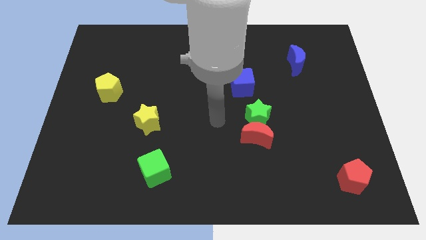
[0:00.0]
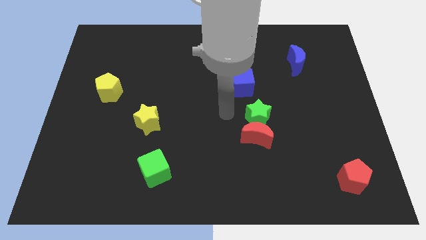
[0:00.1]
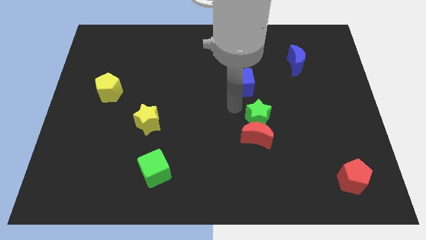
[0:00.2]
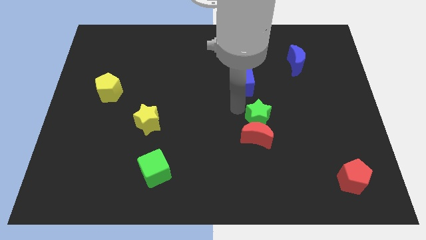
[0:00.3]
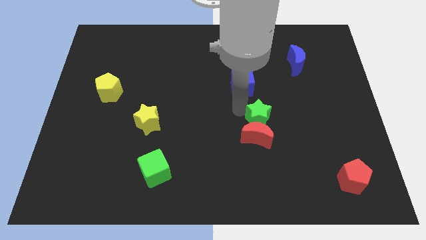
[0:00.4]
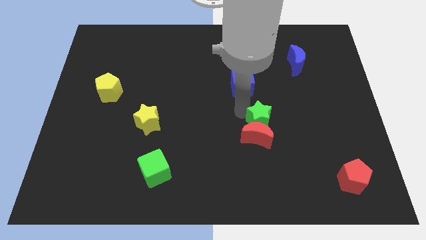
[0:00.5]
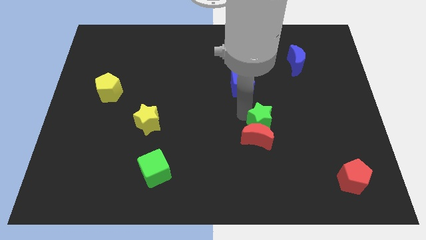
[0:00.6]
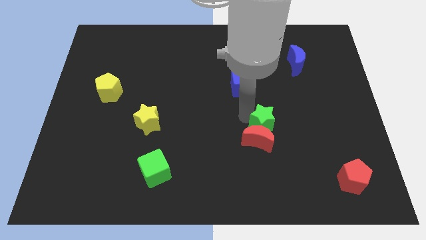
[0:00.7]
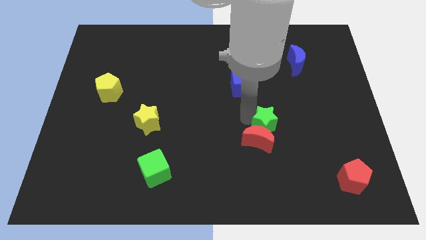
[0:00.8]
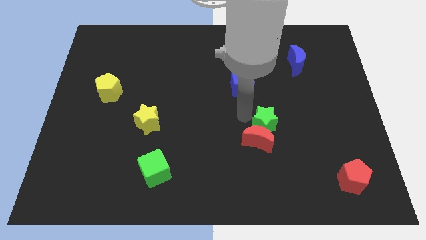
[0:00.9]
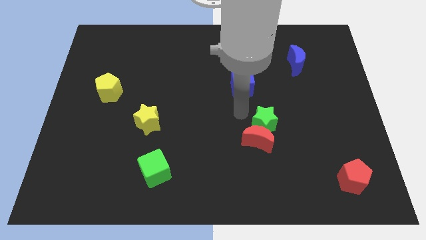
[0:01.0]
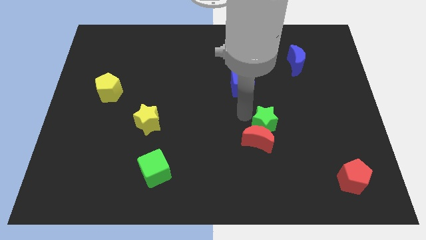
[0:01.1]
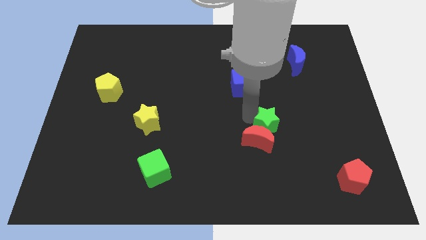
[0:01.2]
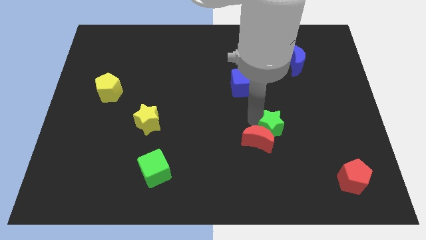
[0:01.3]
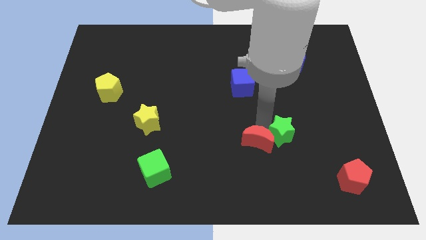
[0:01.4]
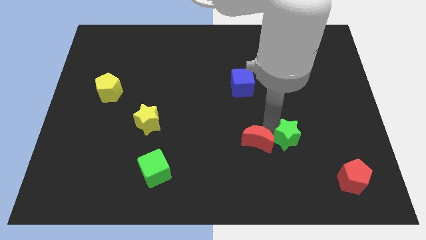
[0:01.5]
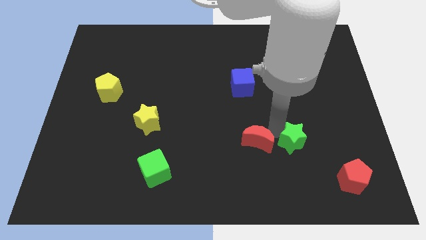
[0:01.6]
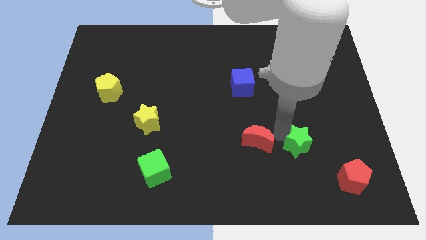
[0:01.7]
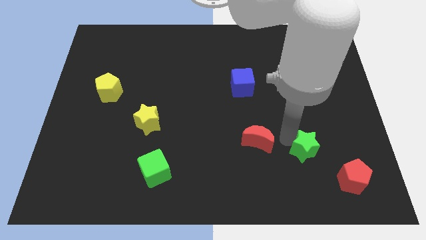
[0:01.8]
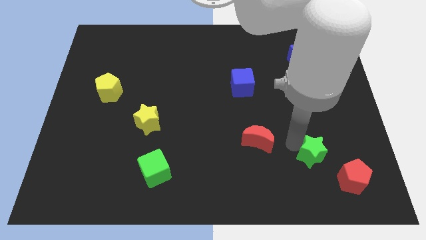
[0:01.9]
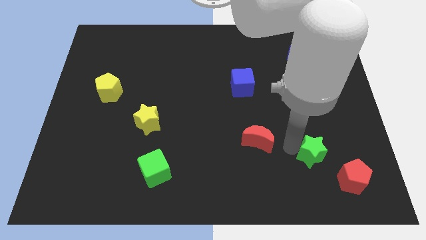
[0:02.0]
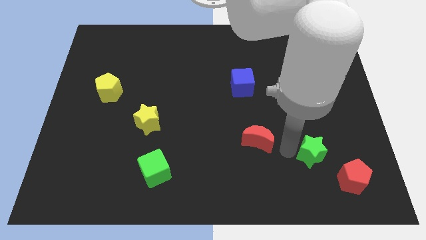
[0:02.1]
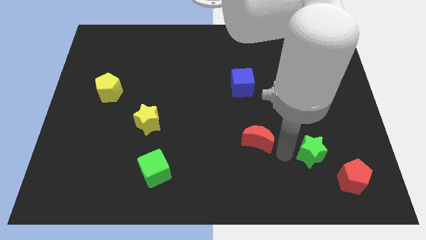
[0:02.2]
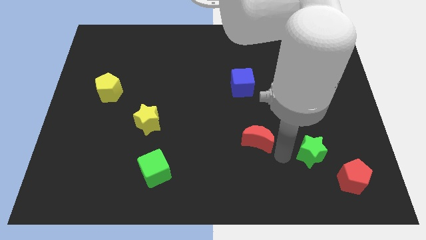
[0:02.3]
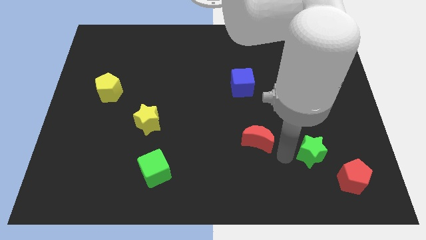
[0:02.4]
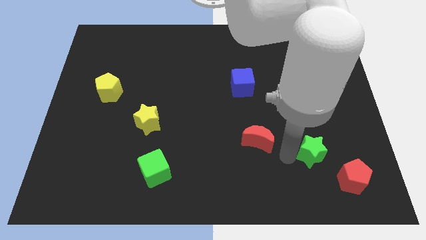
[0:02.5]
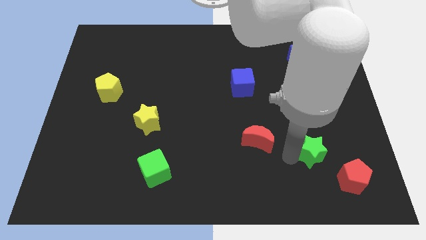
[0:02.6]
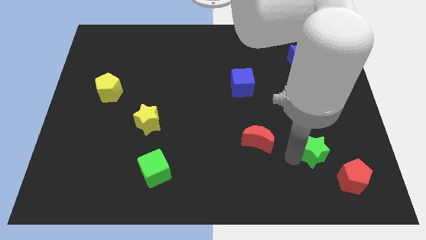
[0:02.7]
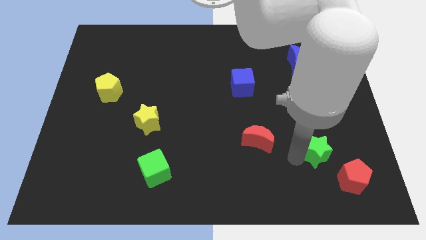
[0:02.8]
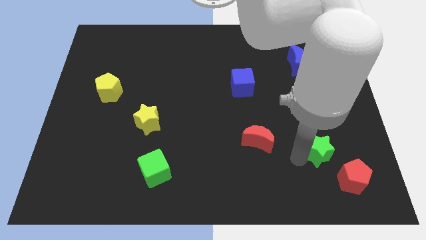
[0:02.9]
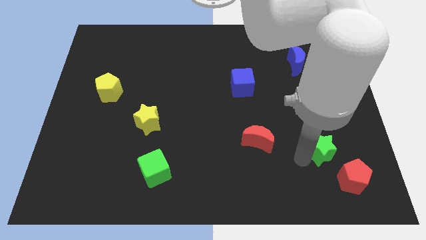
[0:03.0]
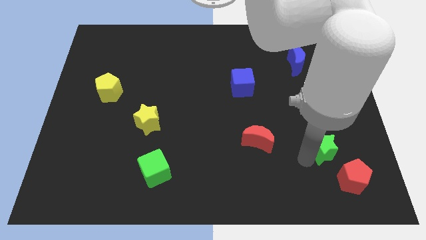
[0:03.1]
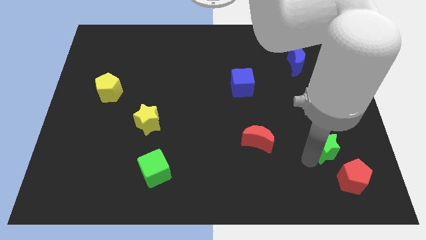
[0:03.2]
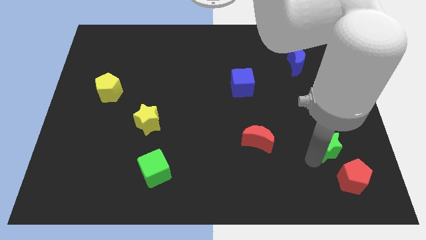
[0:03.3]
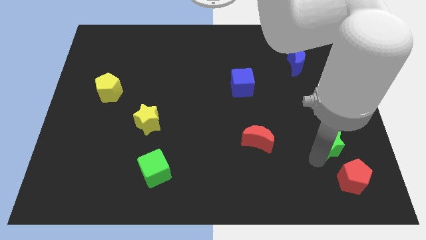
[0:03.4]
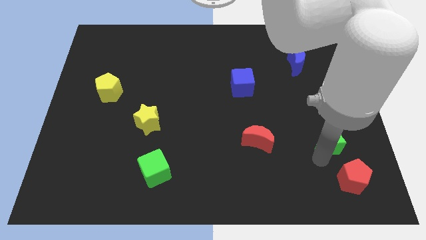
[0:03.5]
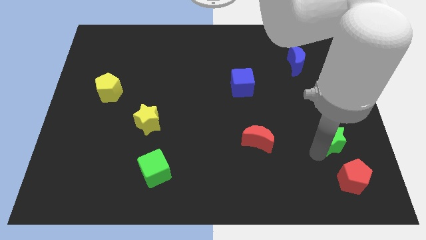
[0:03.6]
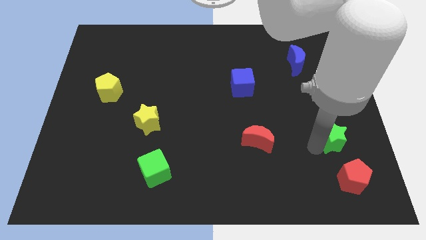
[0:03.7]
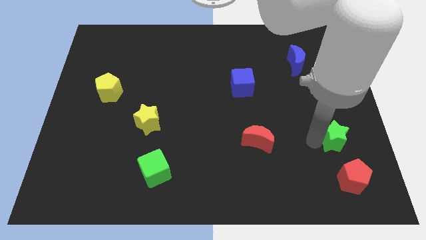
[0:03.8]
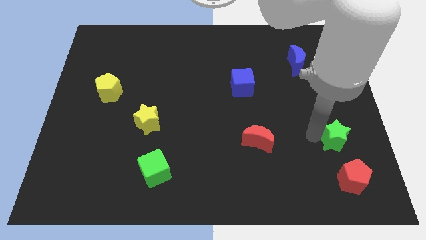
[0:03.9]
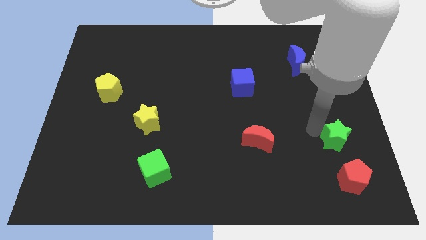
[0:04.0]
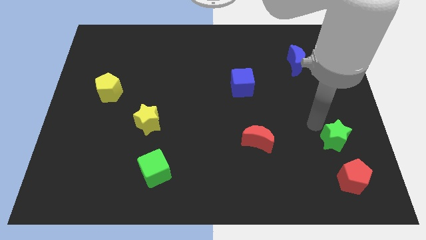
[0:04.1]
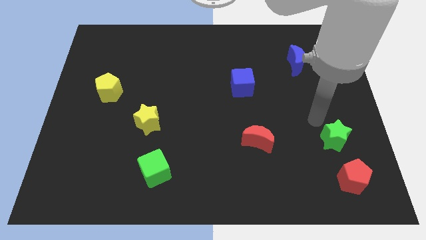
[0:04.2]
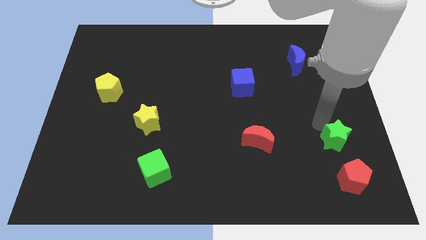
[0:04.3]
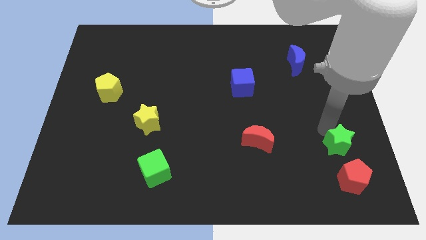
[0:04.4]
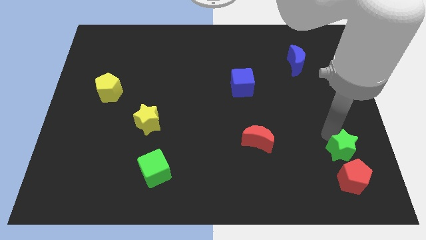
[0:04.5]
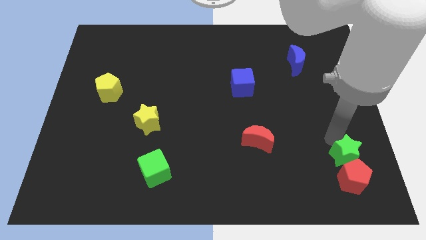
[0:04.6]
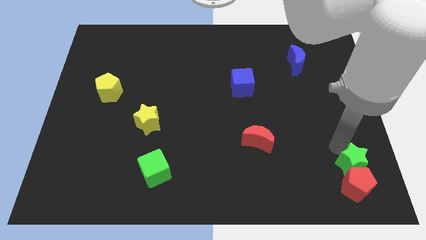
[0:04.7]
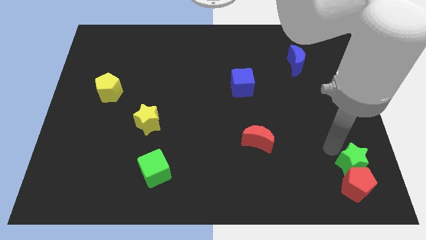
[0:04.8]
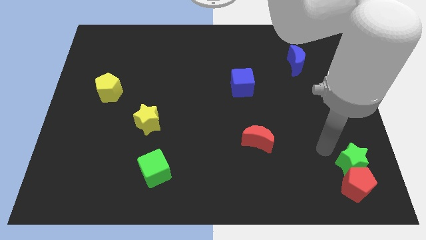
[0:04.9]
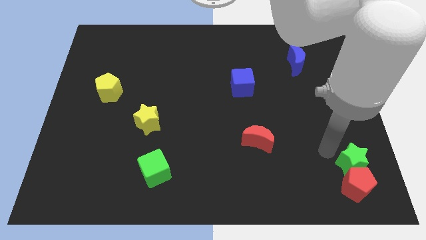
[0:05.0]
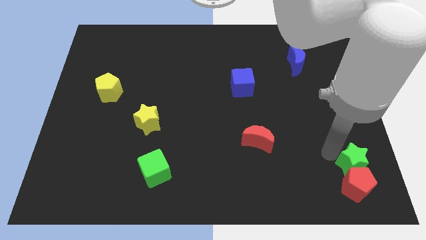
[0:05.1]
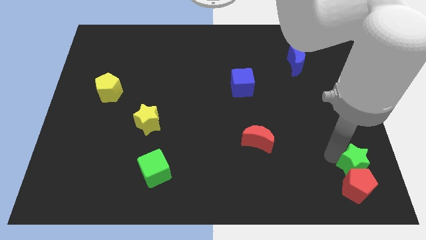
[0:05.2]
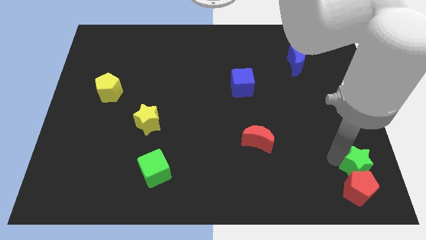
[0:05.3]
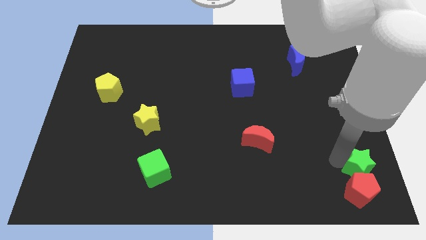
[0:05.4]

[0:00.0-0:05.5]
move the green star to the bottom right
